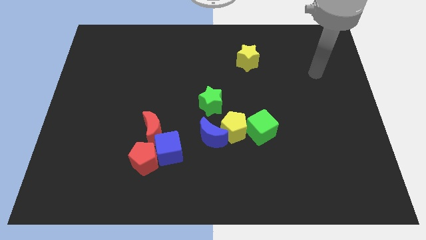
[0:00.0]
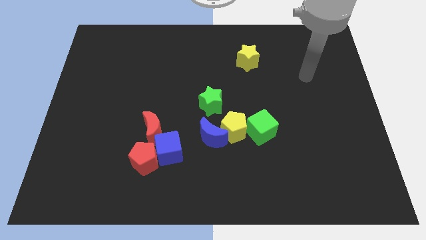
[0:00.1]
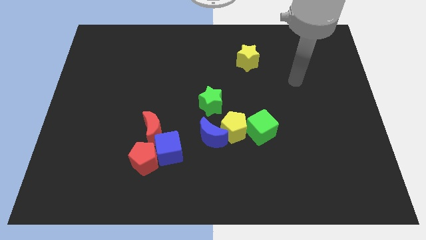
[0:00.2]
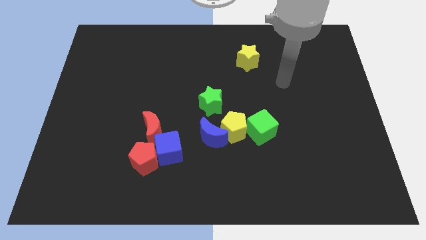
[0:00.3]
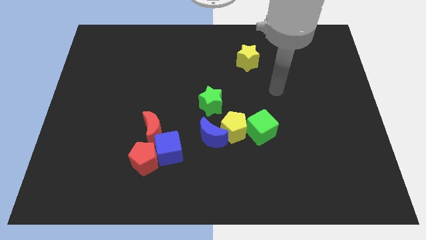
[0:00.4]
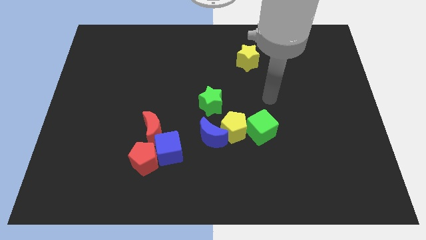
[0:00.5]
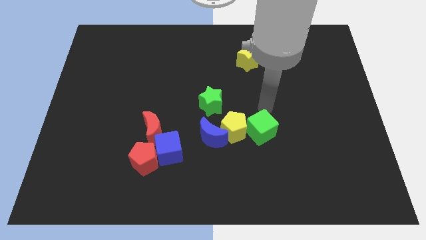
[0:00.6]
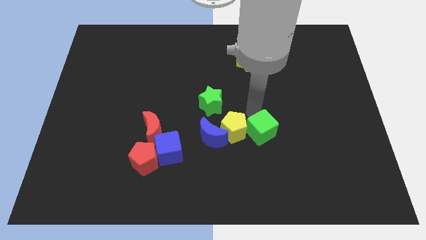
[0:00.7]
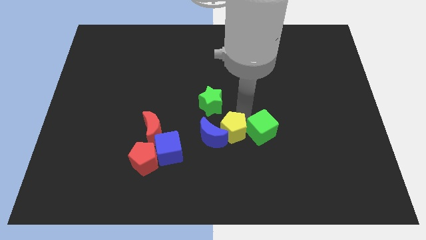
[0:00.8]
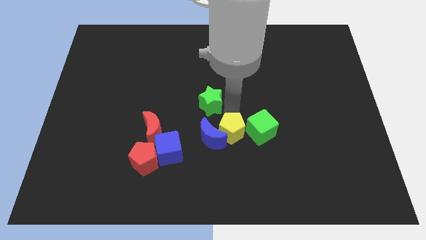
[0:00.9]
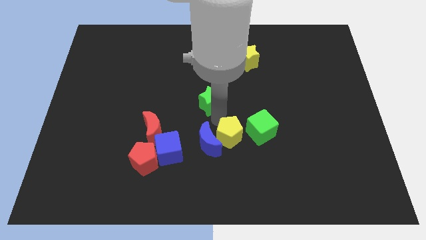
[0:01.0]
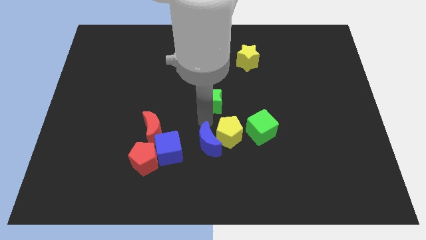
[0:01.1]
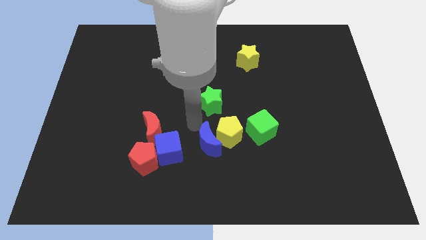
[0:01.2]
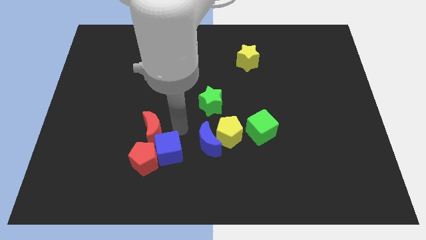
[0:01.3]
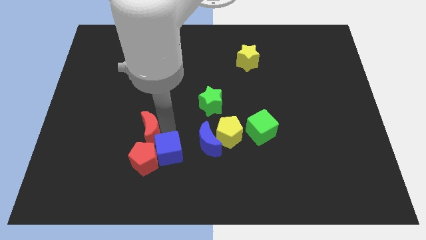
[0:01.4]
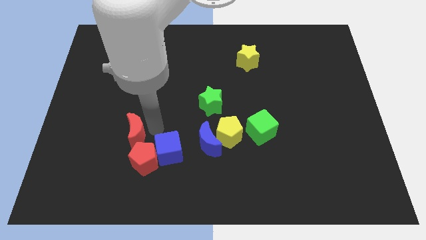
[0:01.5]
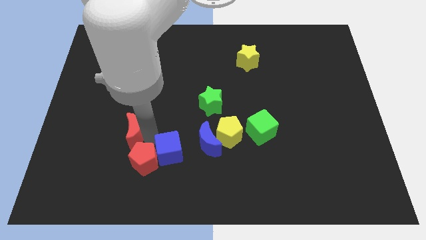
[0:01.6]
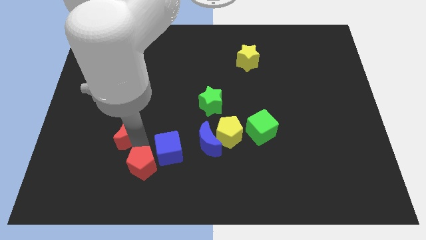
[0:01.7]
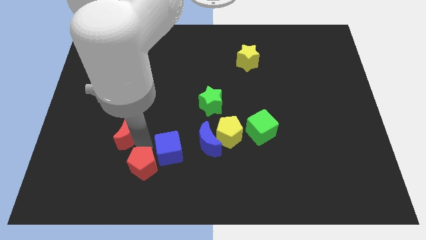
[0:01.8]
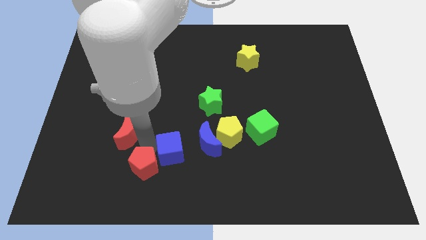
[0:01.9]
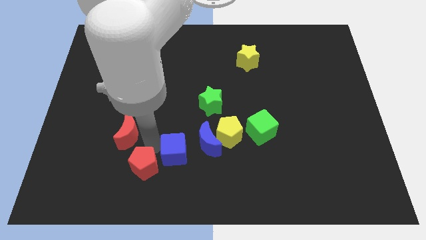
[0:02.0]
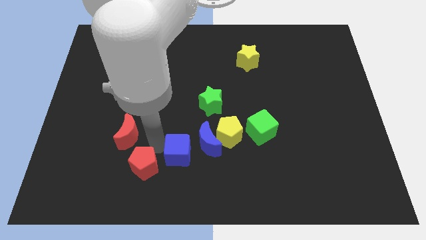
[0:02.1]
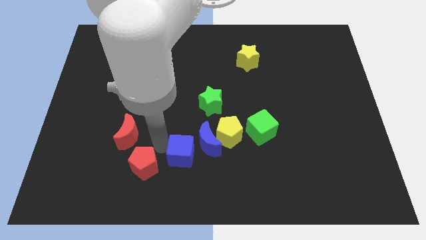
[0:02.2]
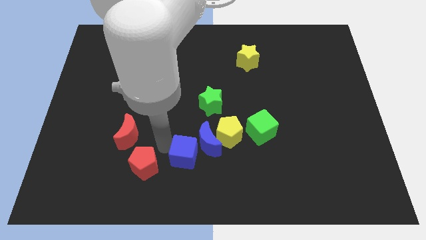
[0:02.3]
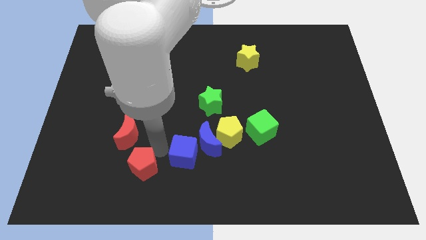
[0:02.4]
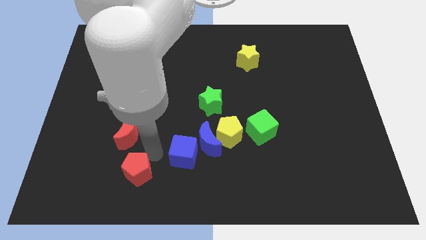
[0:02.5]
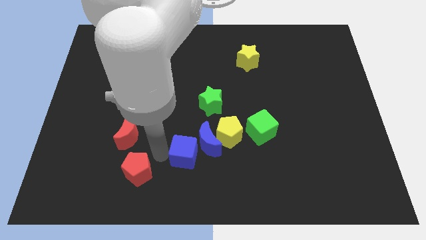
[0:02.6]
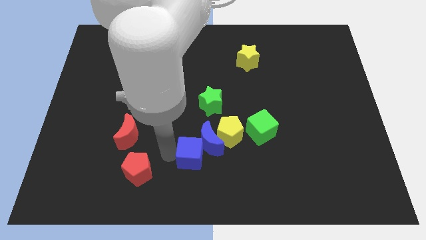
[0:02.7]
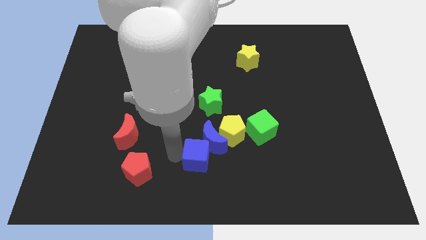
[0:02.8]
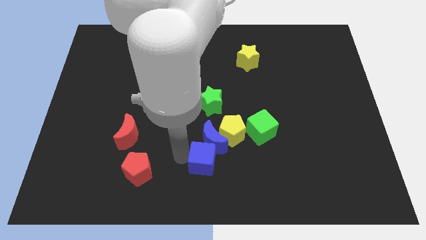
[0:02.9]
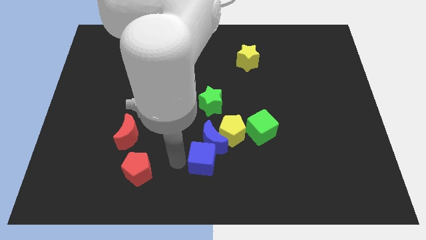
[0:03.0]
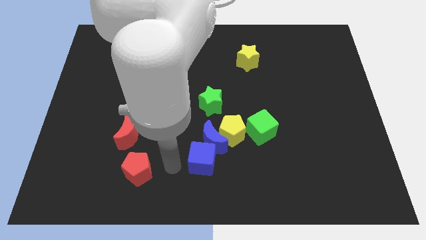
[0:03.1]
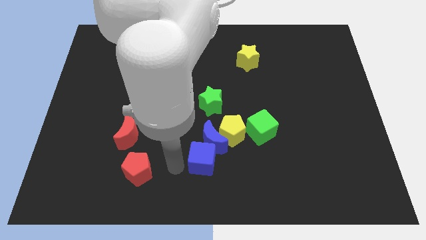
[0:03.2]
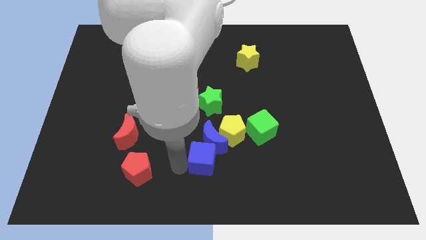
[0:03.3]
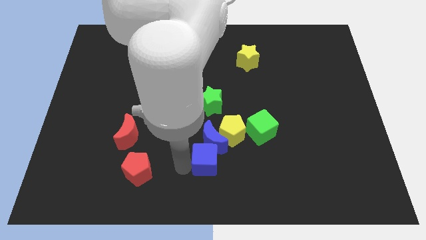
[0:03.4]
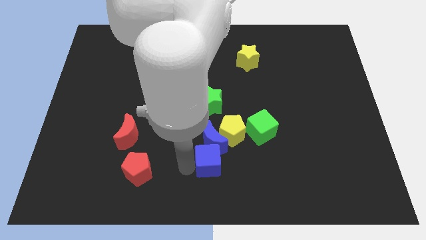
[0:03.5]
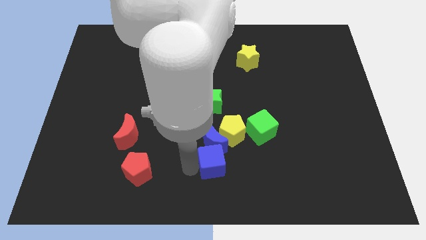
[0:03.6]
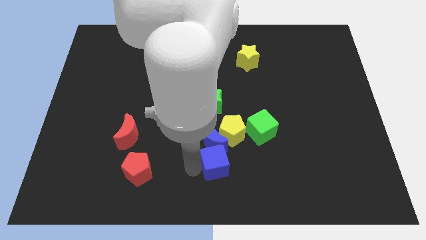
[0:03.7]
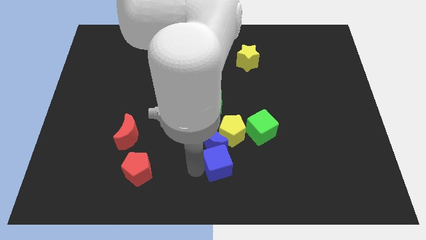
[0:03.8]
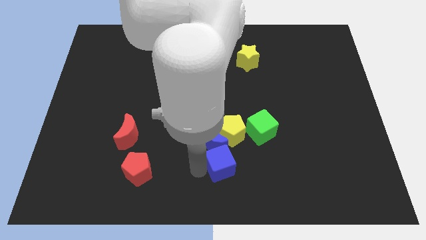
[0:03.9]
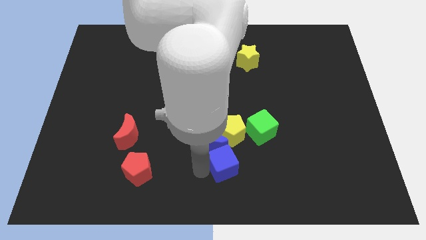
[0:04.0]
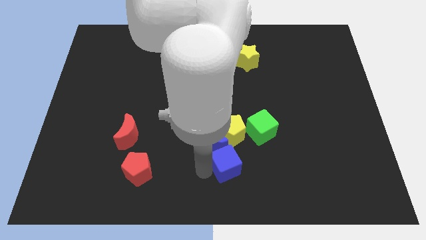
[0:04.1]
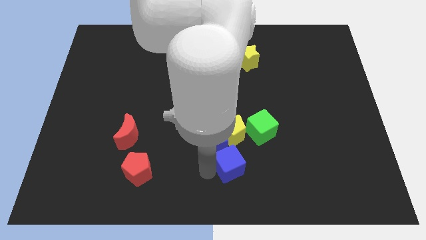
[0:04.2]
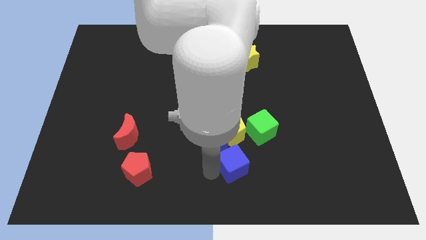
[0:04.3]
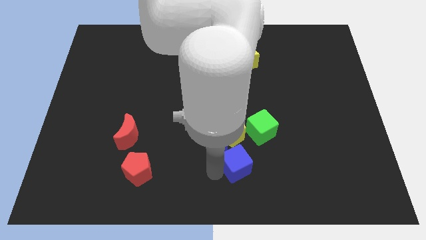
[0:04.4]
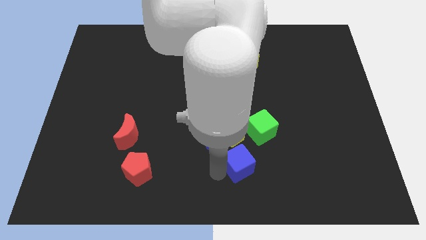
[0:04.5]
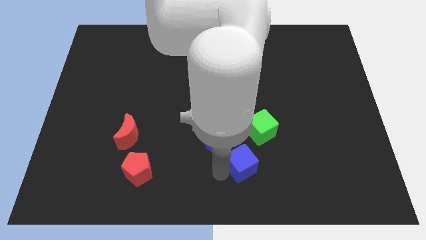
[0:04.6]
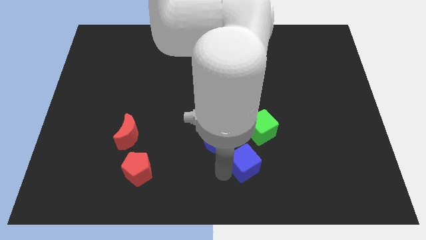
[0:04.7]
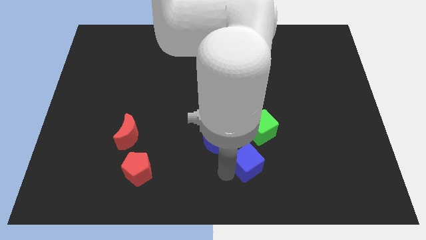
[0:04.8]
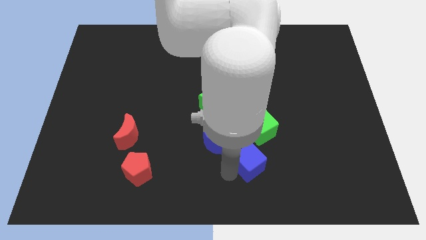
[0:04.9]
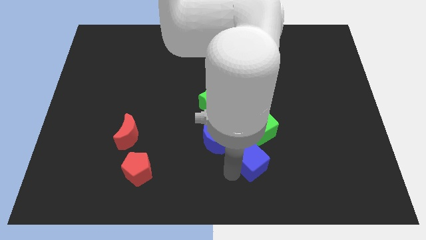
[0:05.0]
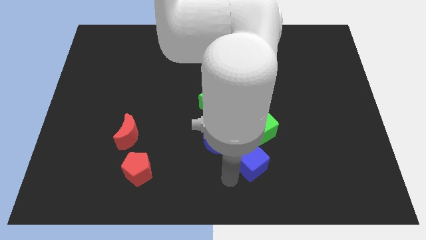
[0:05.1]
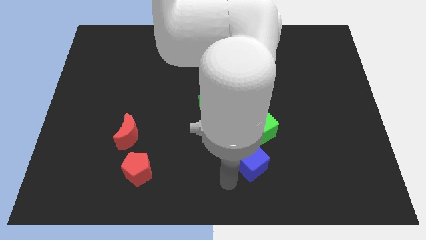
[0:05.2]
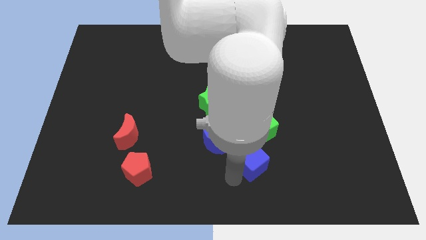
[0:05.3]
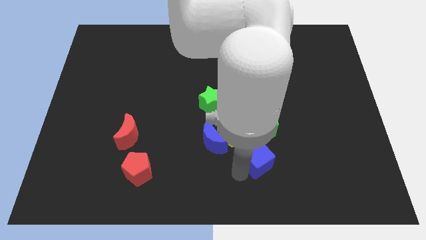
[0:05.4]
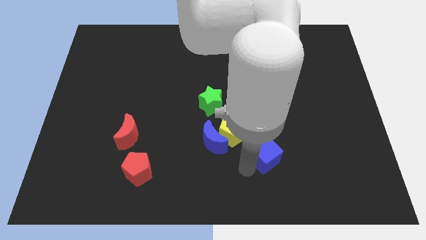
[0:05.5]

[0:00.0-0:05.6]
push the blue cube to the right

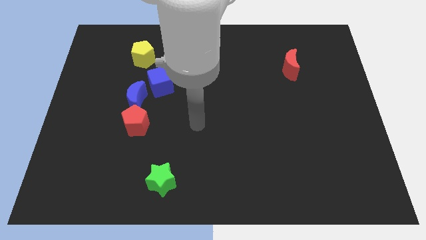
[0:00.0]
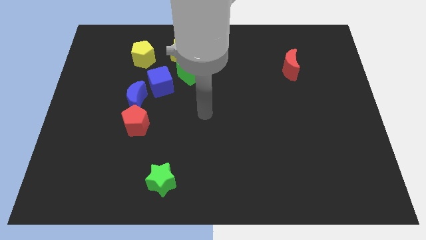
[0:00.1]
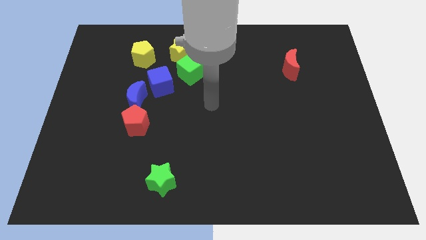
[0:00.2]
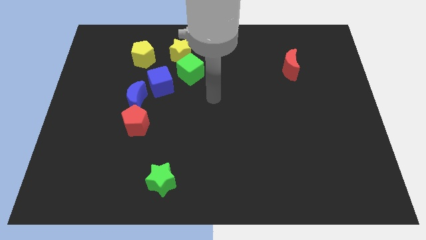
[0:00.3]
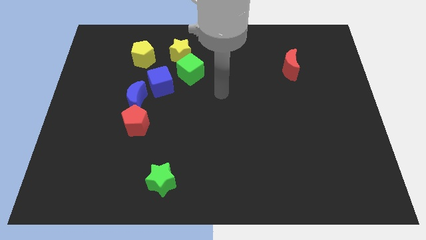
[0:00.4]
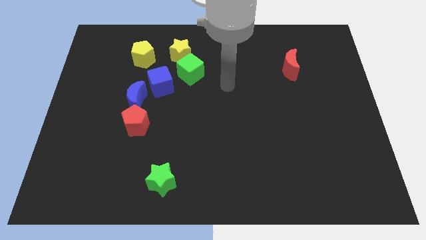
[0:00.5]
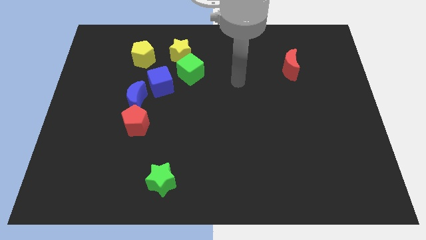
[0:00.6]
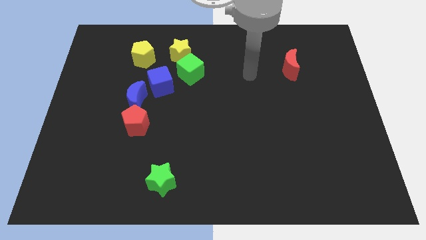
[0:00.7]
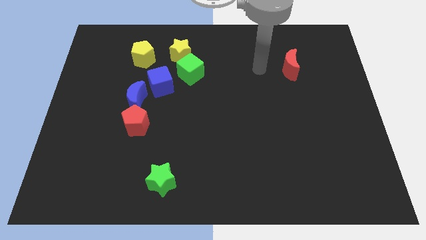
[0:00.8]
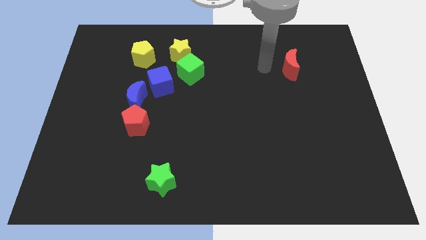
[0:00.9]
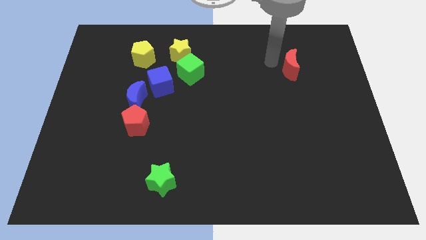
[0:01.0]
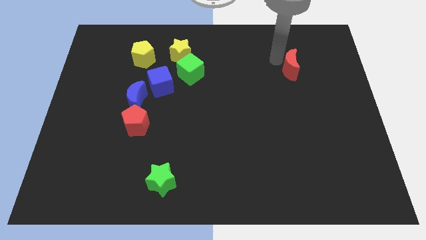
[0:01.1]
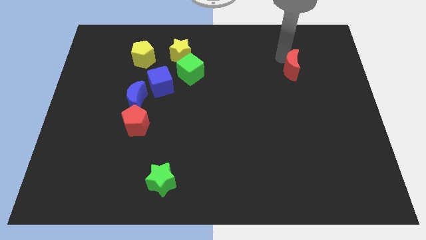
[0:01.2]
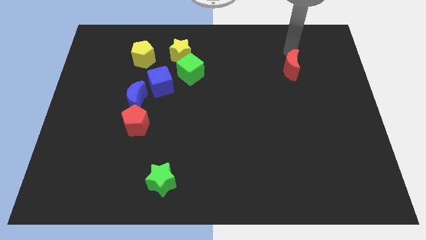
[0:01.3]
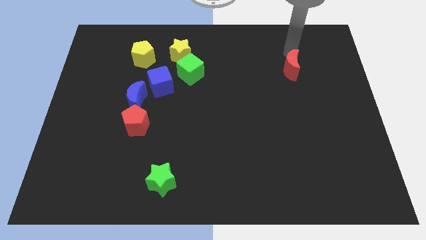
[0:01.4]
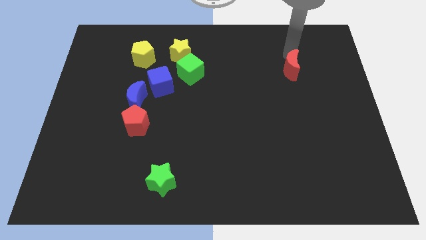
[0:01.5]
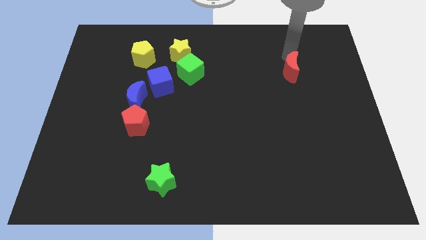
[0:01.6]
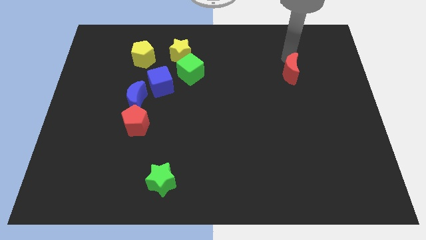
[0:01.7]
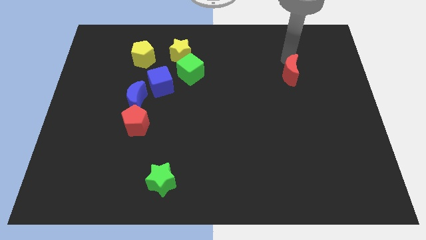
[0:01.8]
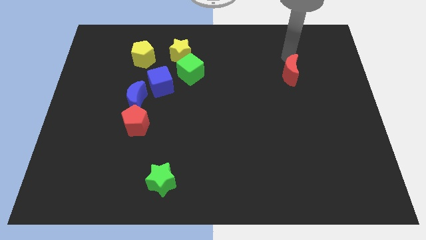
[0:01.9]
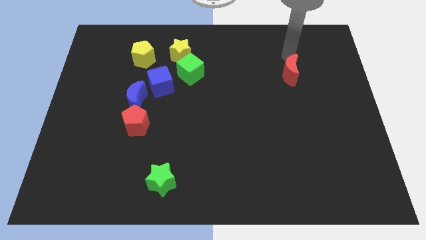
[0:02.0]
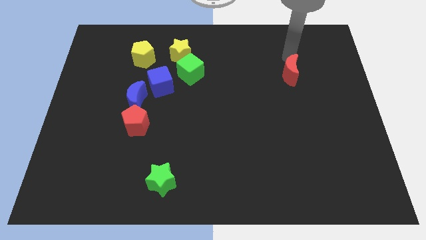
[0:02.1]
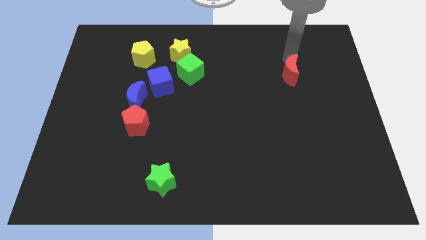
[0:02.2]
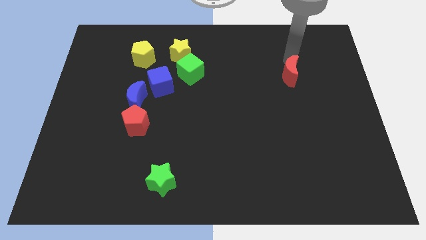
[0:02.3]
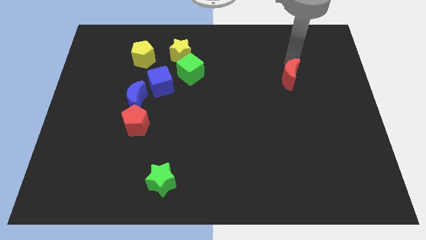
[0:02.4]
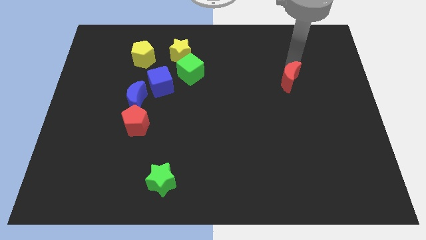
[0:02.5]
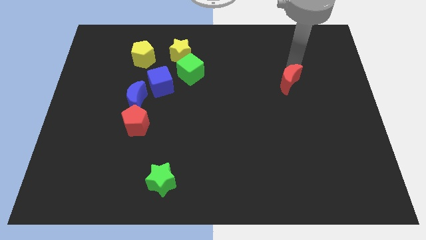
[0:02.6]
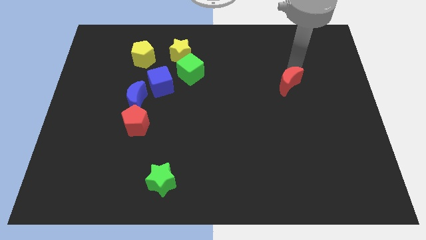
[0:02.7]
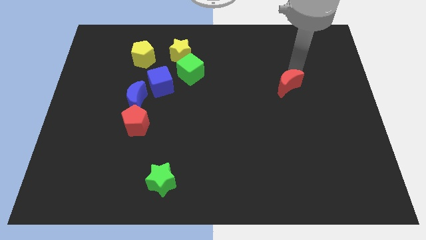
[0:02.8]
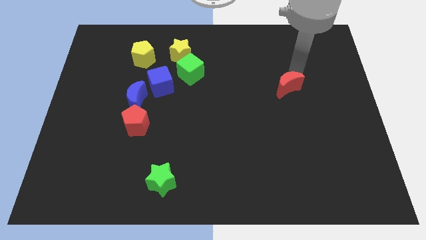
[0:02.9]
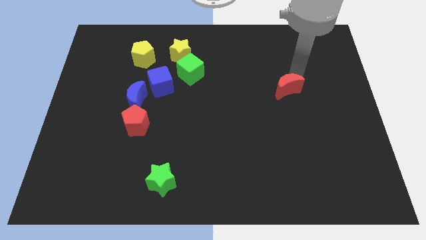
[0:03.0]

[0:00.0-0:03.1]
slightly move the red moon downwards
